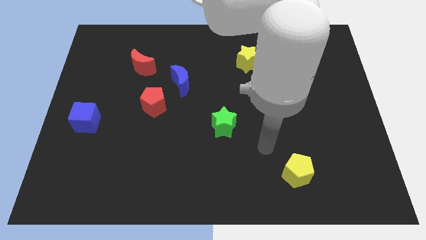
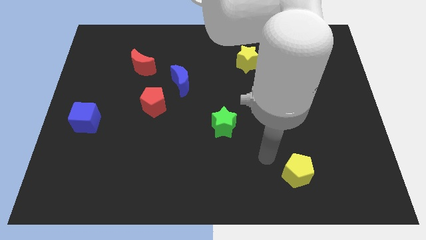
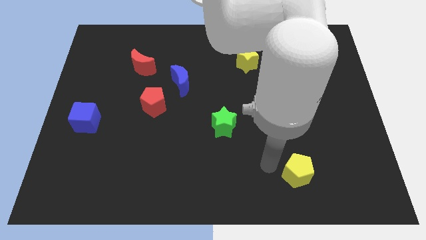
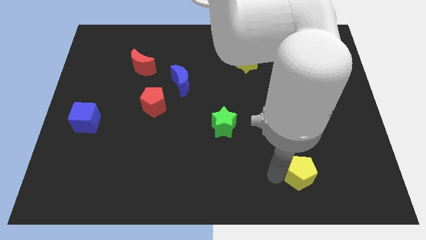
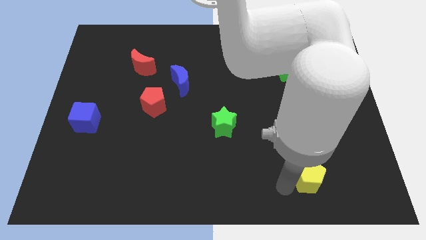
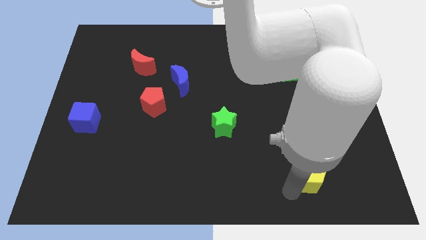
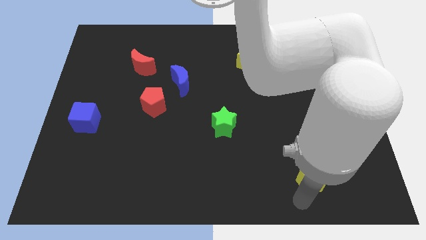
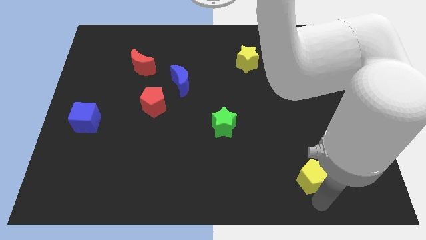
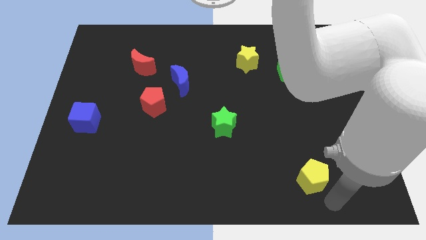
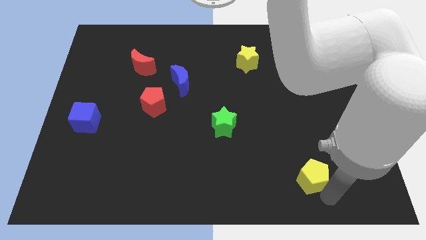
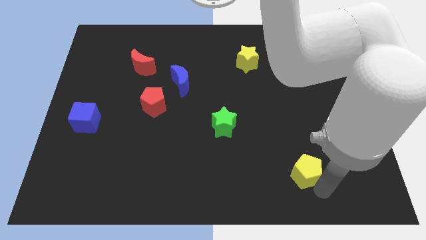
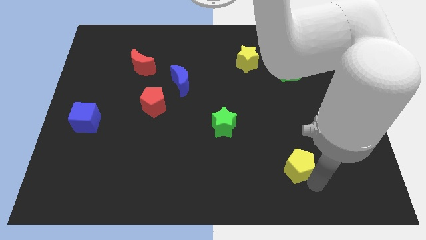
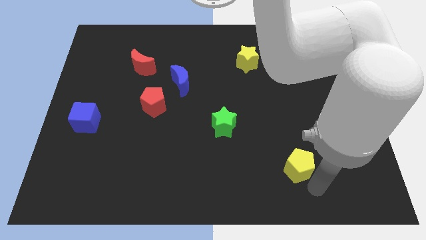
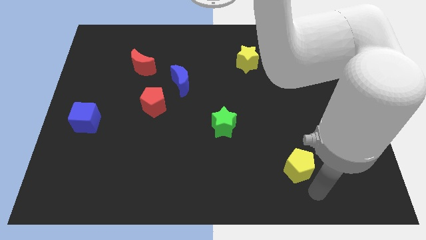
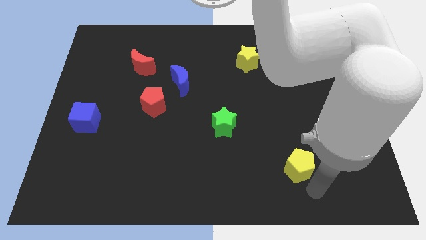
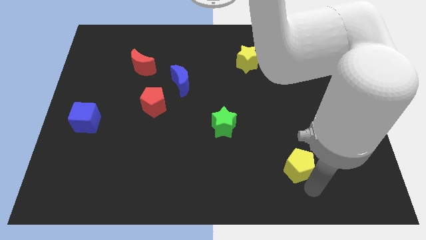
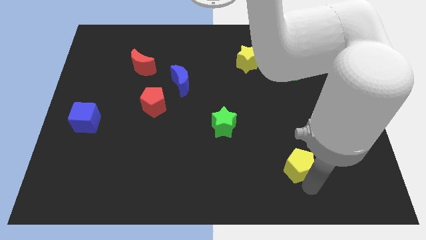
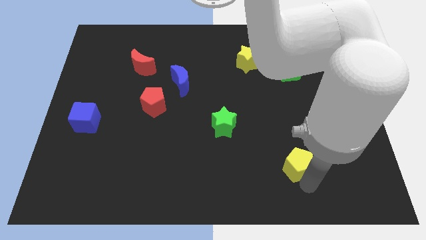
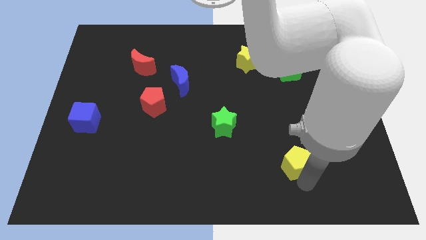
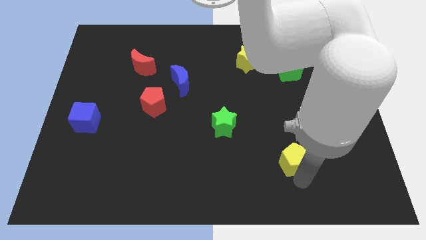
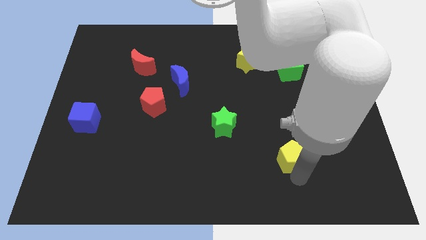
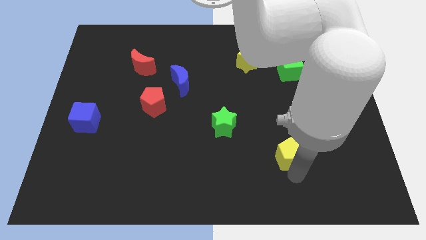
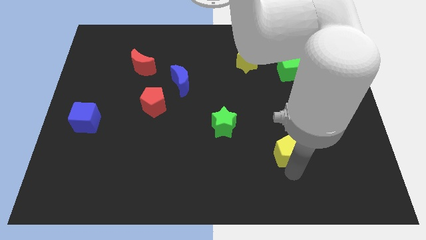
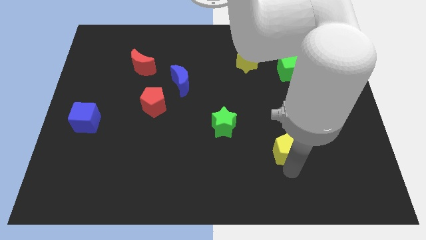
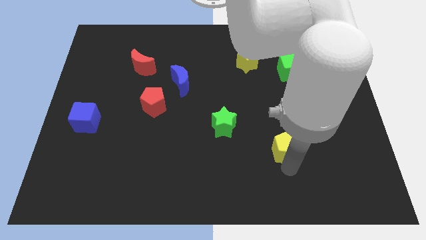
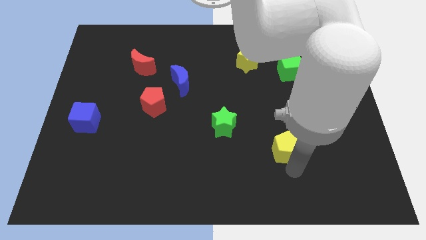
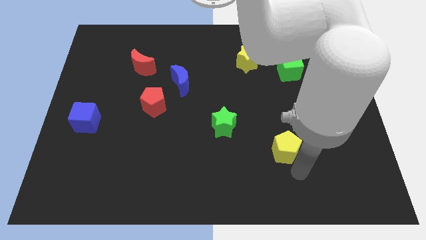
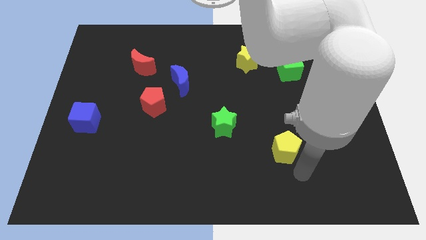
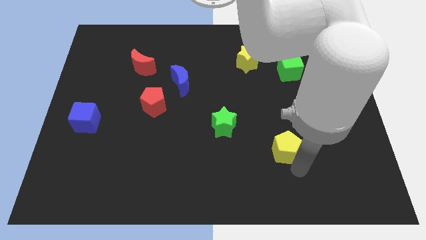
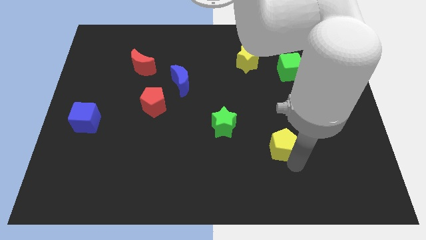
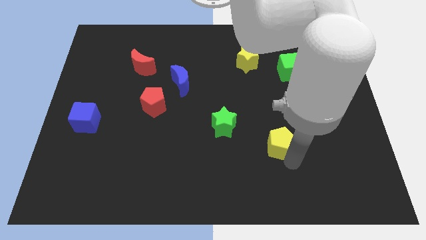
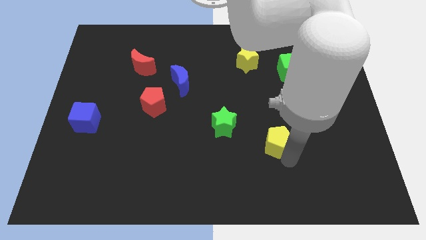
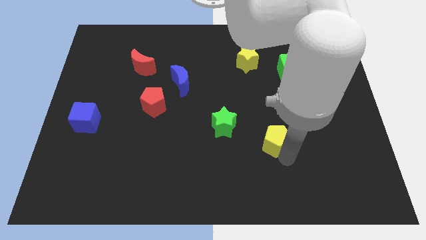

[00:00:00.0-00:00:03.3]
move the yellow pentagon a bit upwards

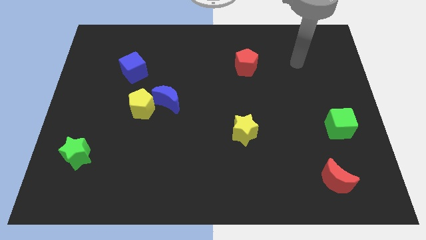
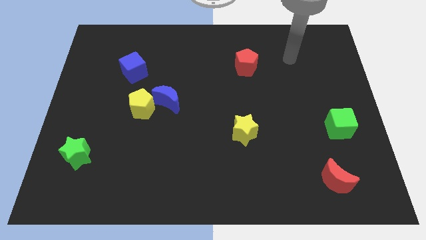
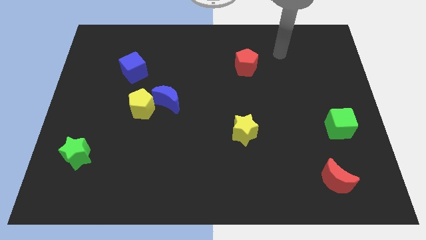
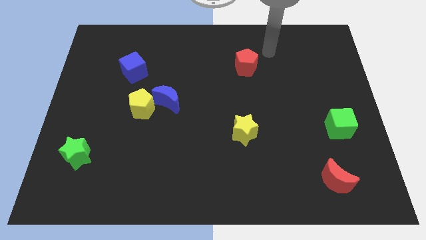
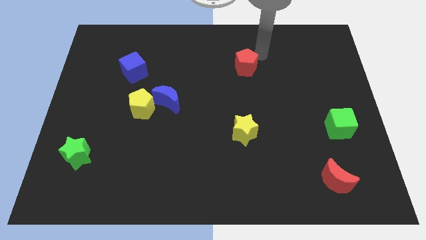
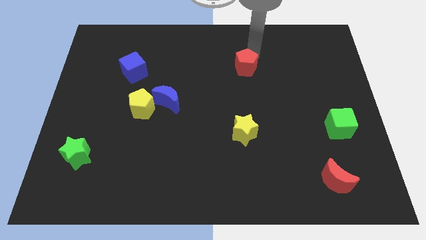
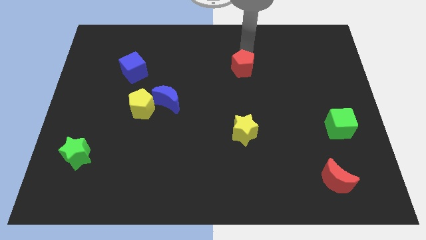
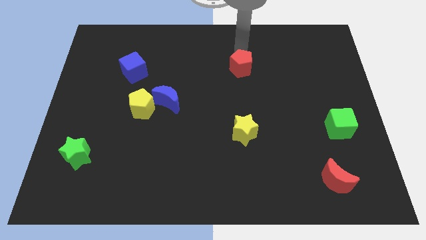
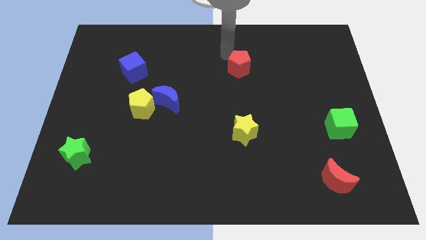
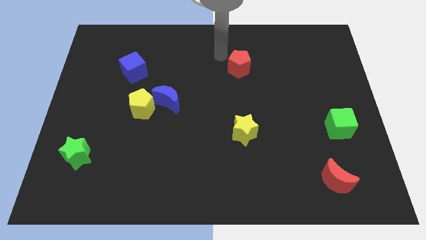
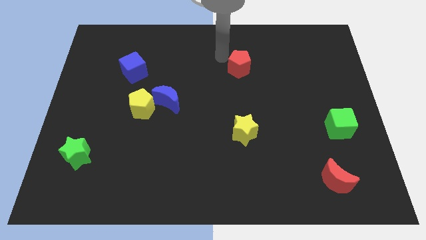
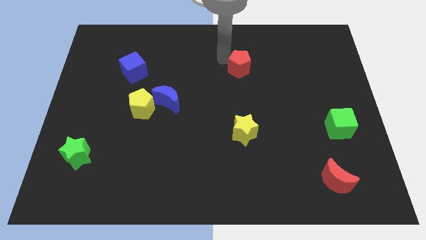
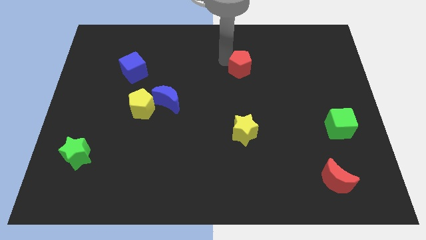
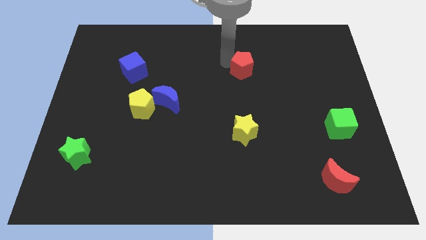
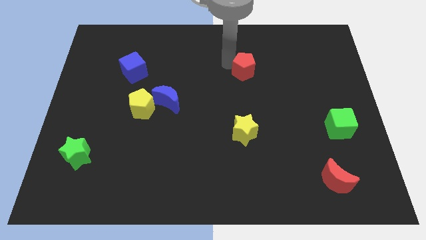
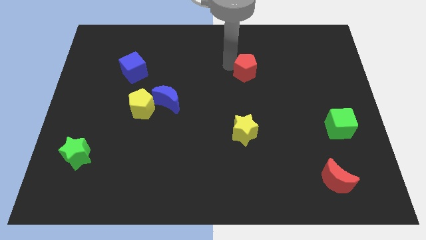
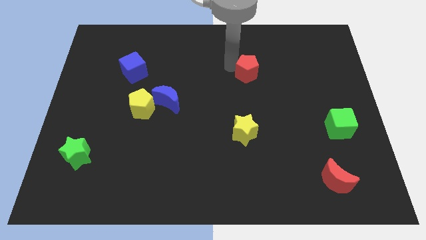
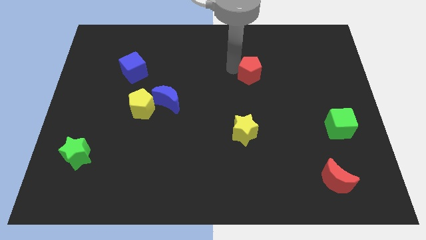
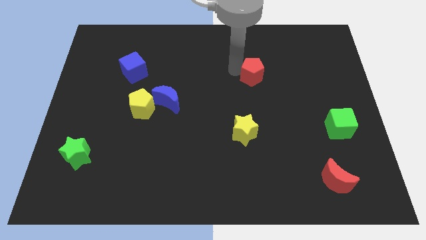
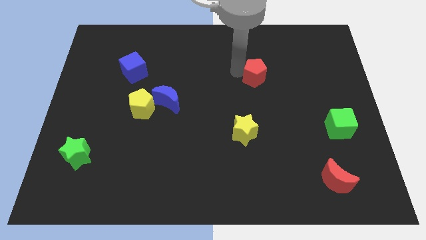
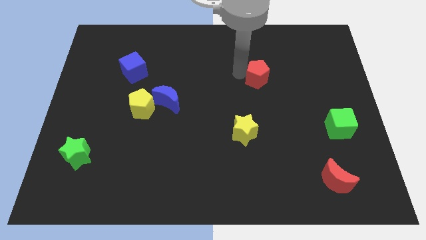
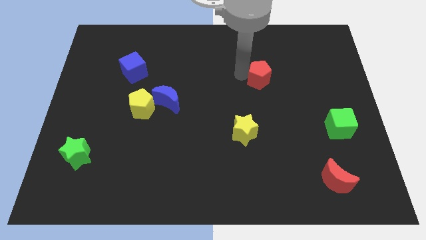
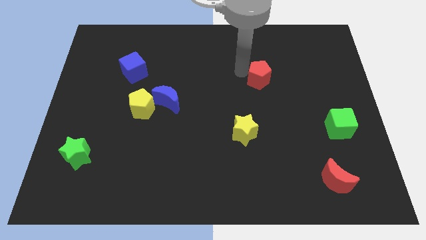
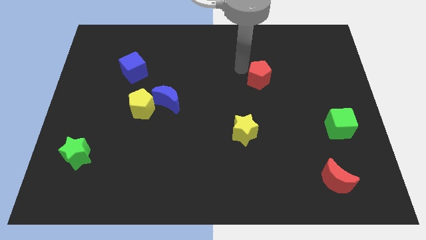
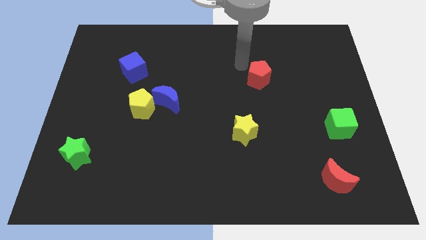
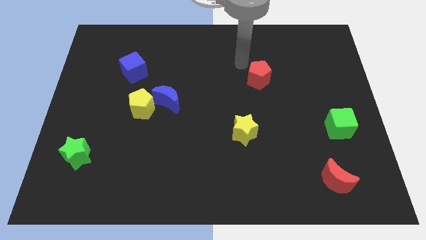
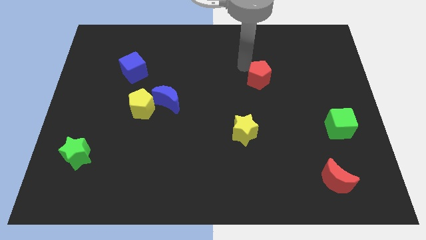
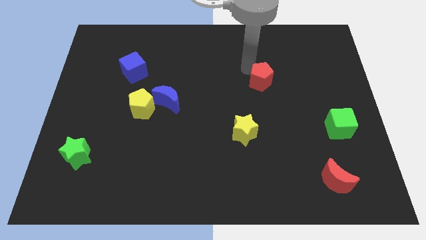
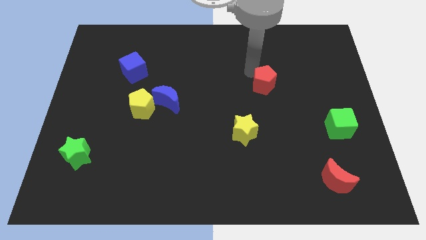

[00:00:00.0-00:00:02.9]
slightly slide the red pentagon diagonally down and right

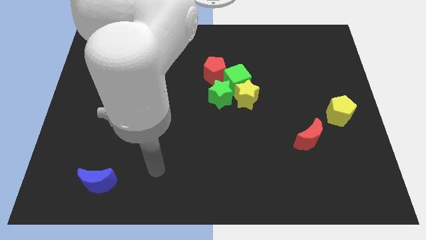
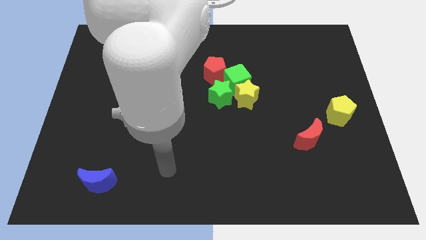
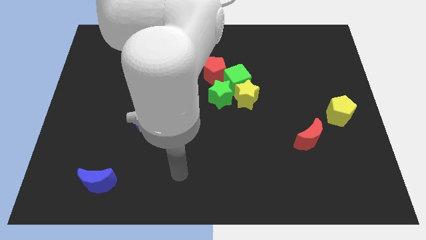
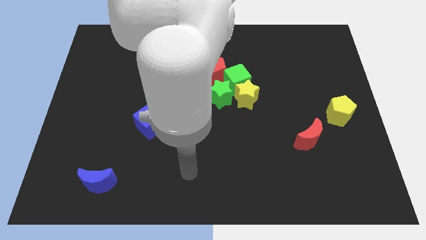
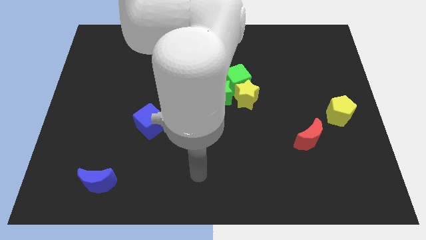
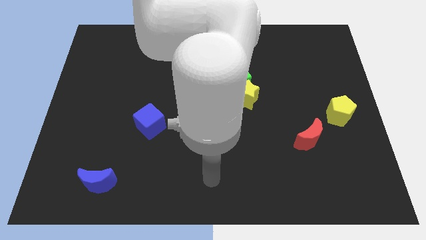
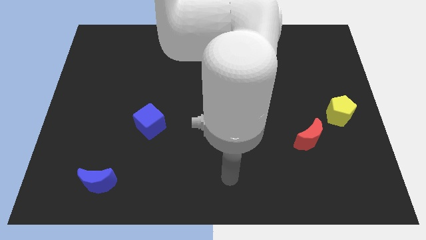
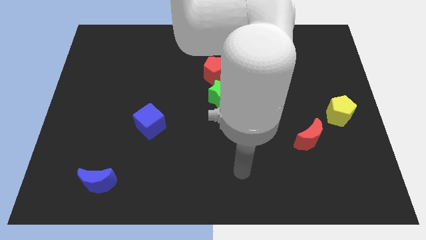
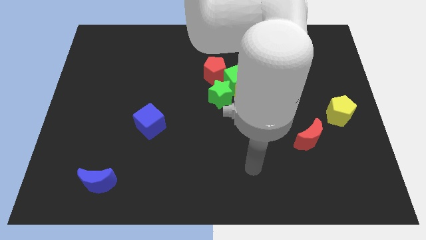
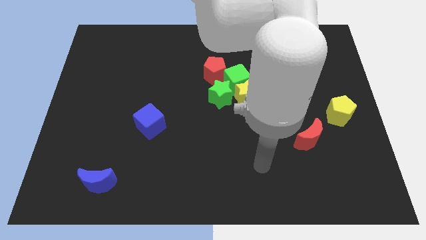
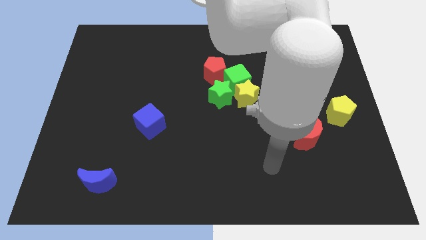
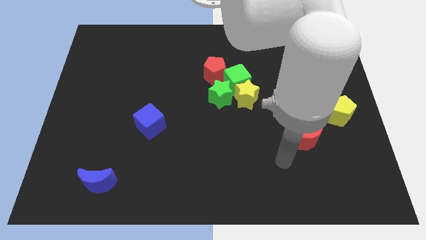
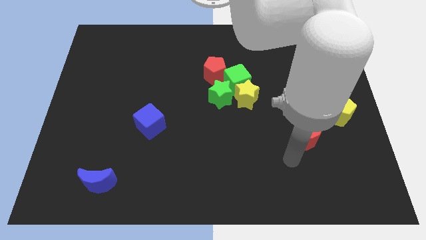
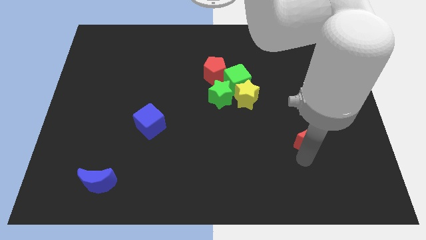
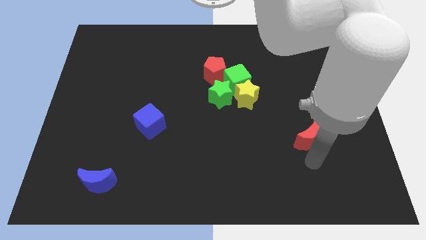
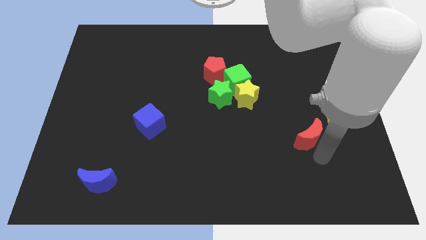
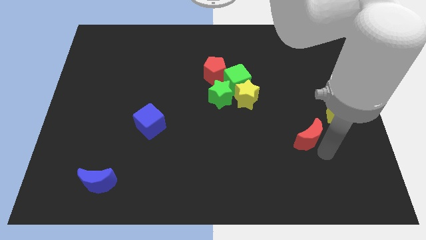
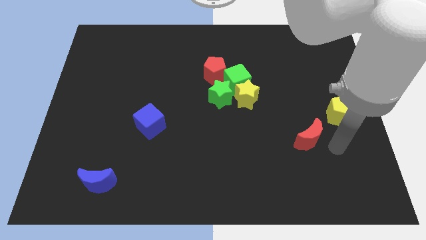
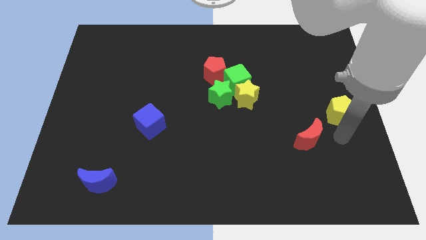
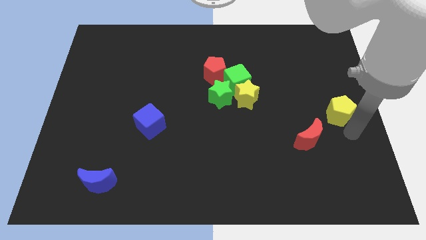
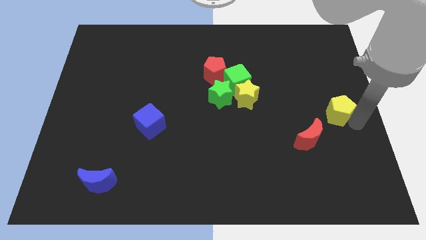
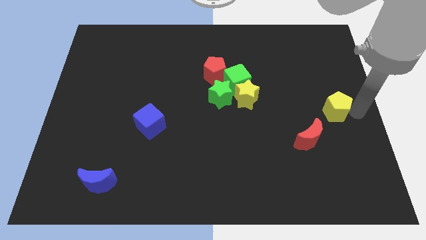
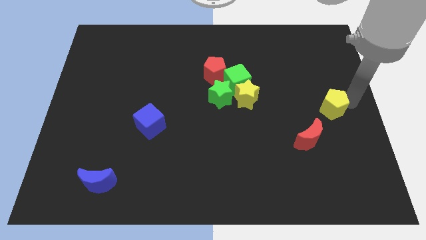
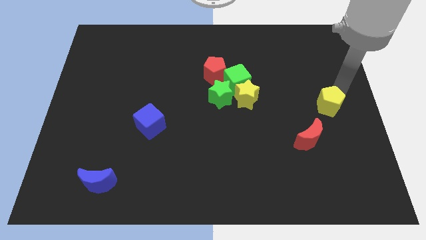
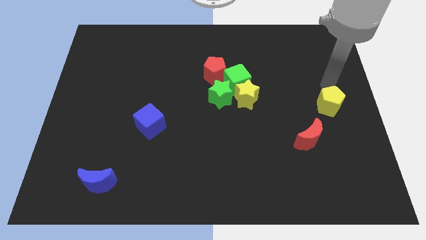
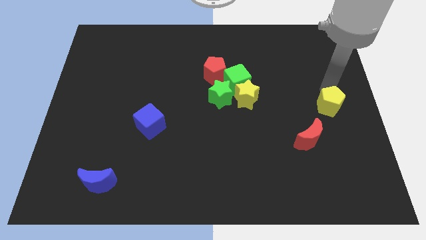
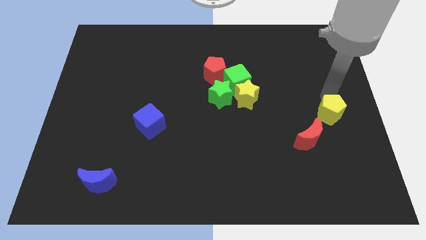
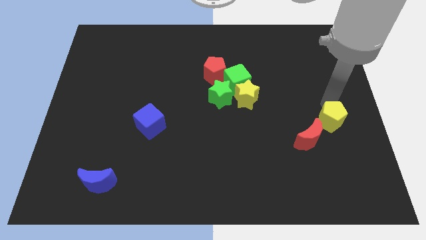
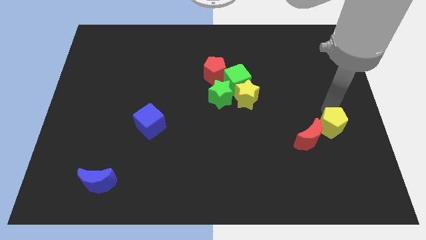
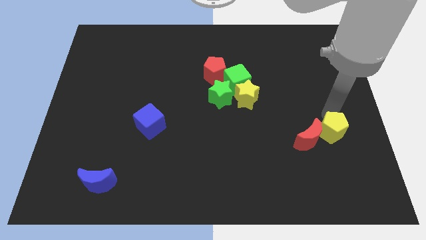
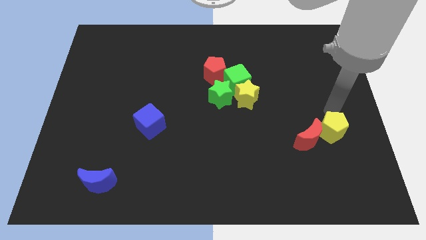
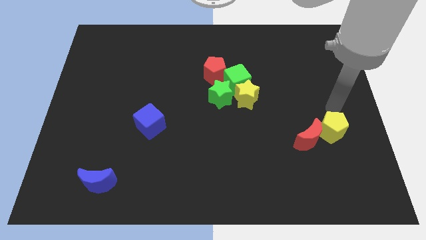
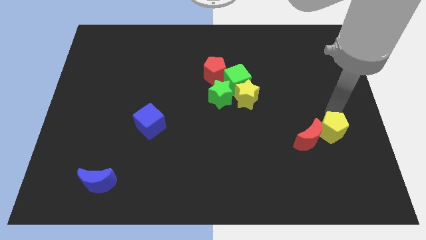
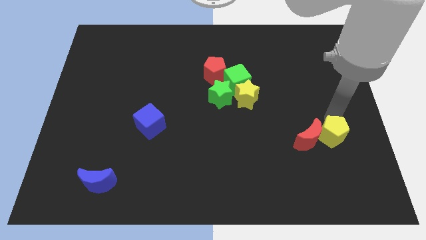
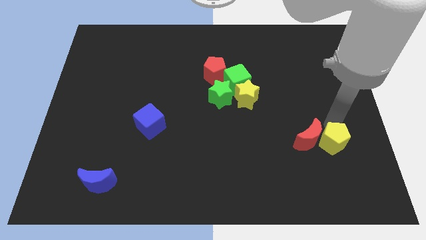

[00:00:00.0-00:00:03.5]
slightly move the yellow pentagon downwards and to the left diagonally
